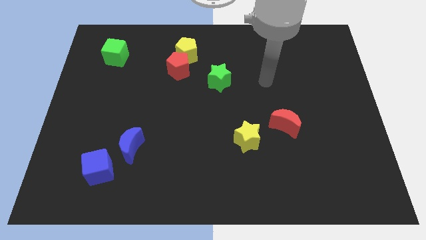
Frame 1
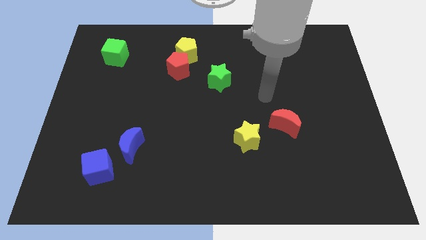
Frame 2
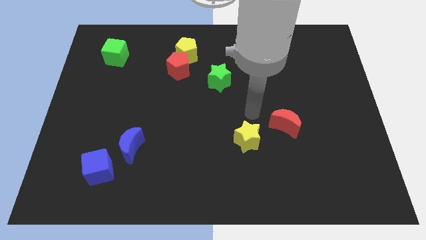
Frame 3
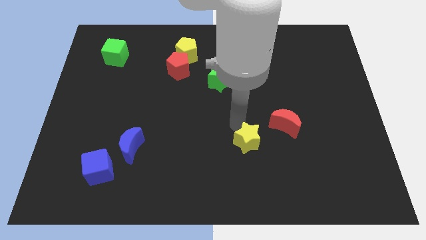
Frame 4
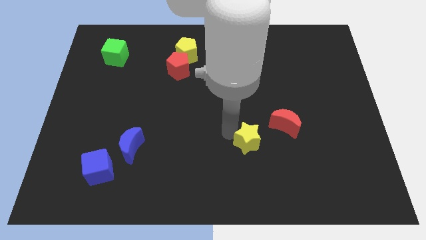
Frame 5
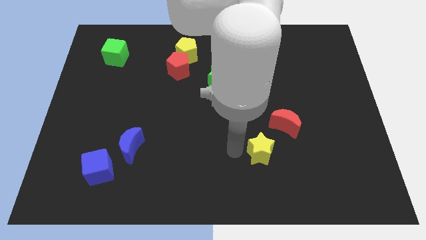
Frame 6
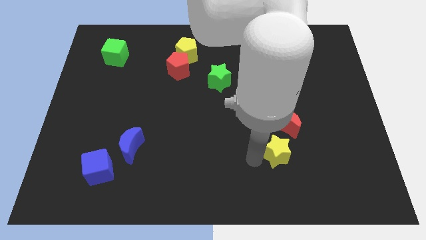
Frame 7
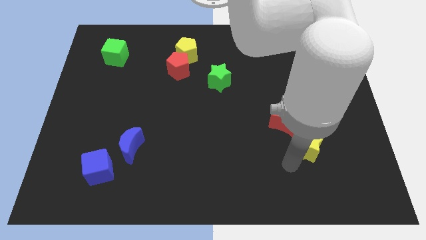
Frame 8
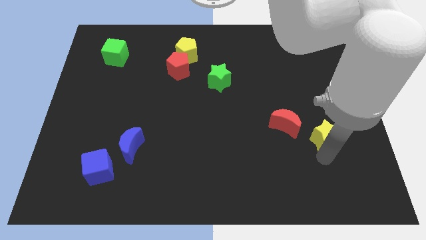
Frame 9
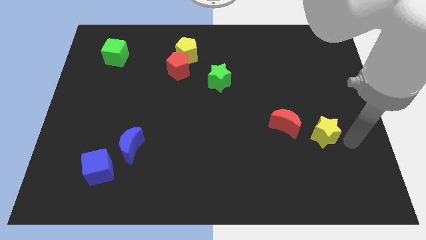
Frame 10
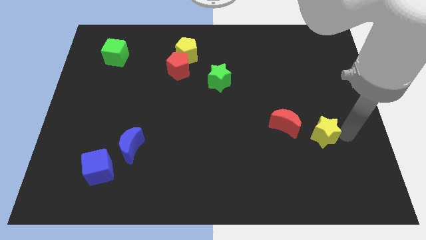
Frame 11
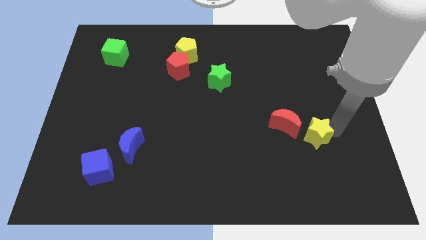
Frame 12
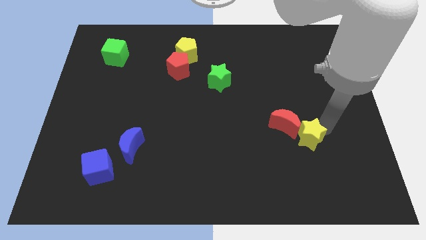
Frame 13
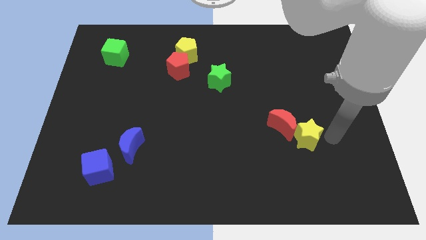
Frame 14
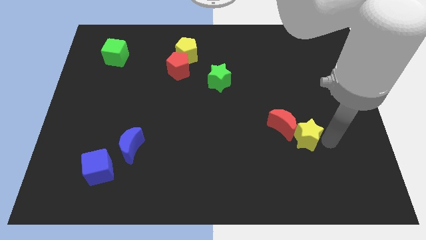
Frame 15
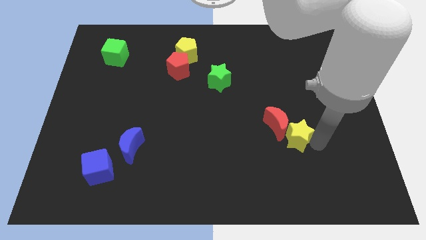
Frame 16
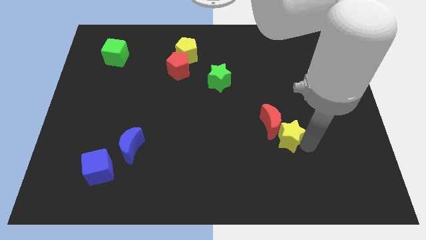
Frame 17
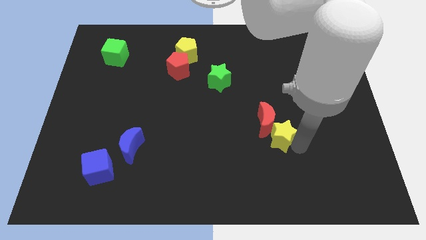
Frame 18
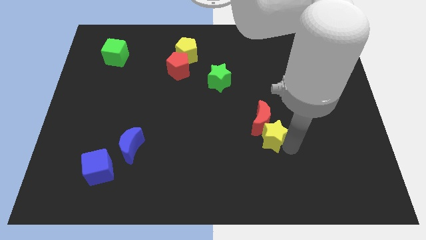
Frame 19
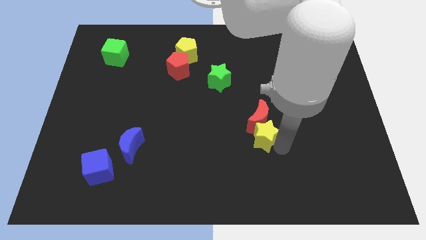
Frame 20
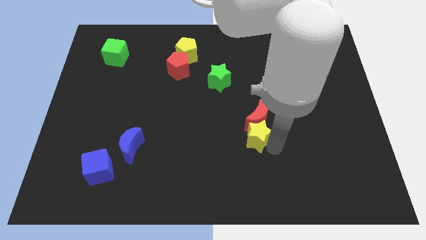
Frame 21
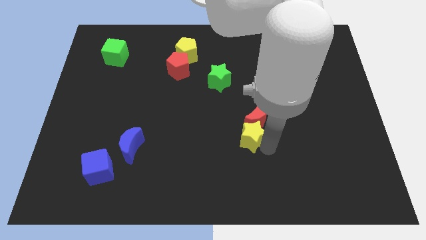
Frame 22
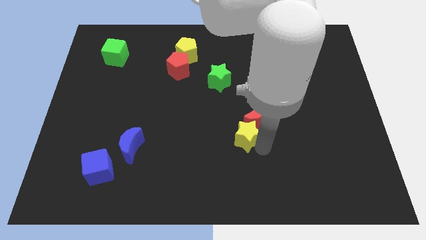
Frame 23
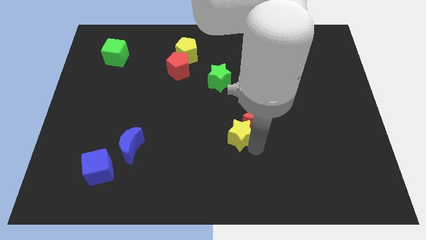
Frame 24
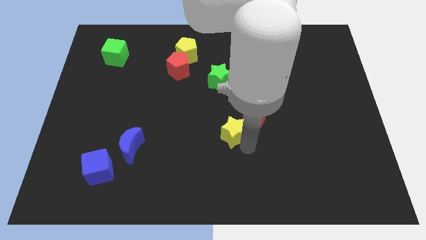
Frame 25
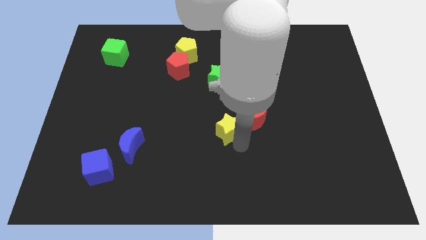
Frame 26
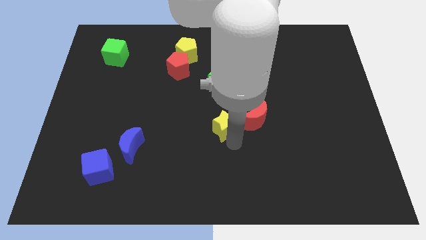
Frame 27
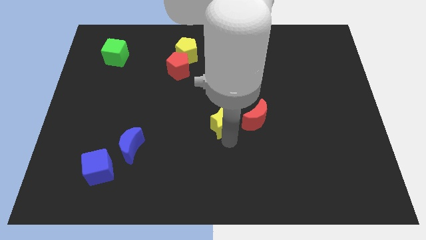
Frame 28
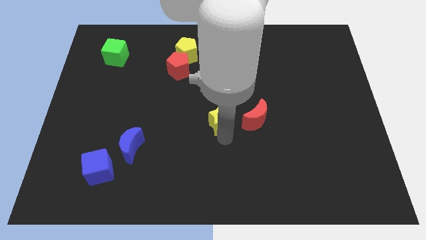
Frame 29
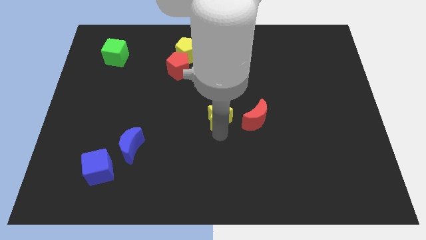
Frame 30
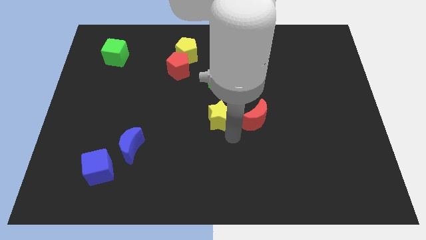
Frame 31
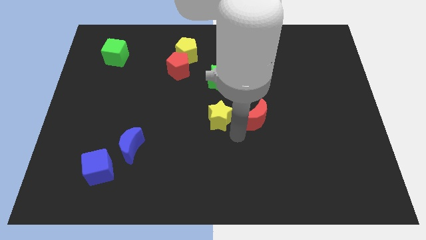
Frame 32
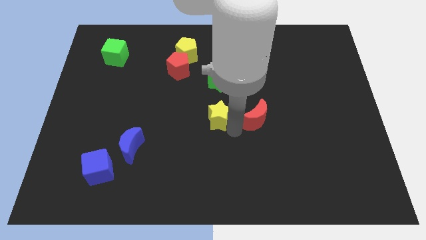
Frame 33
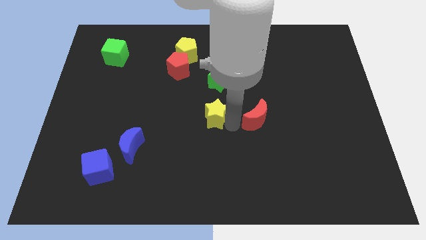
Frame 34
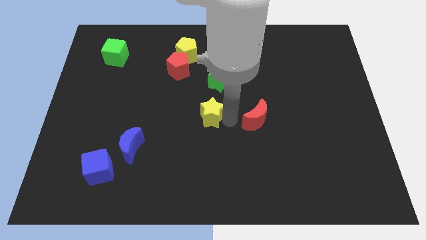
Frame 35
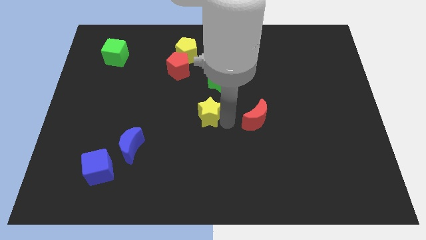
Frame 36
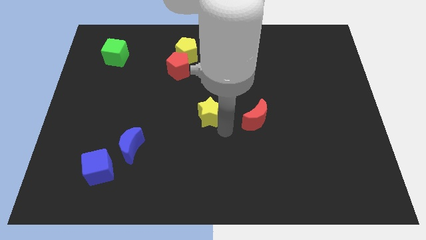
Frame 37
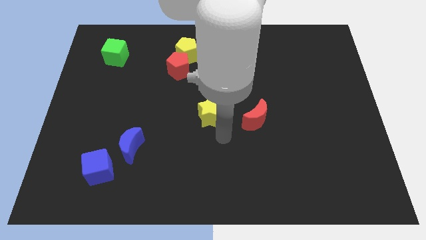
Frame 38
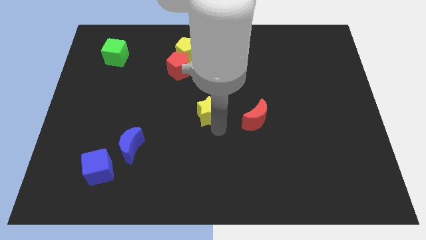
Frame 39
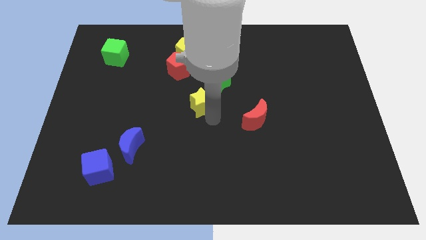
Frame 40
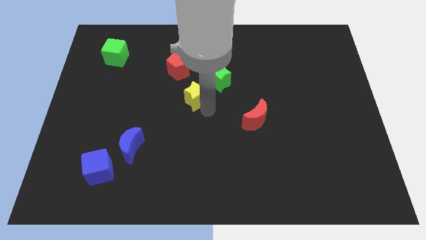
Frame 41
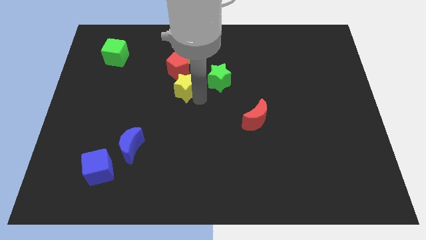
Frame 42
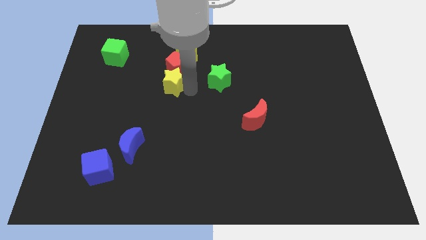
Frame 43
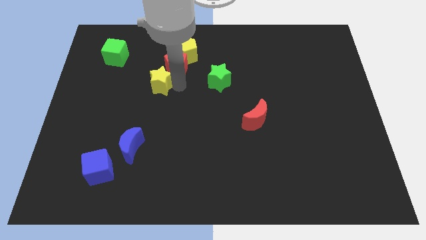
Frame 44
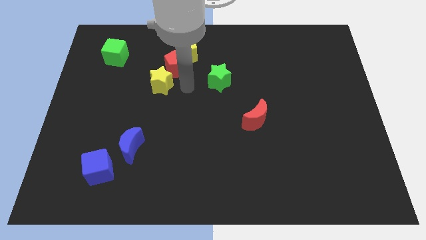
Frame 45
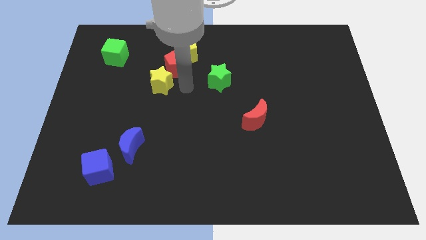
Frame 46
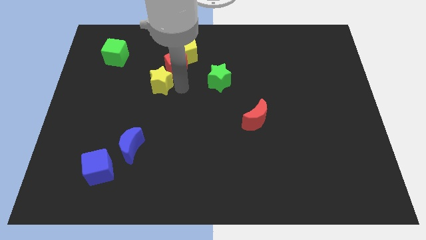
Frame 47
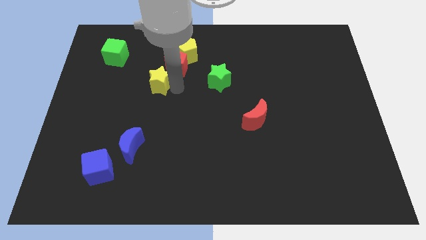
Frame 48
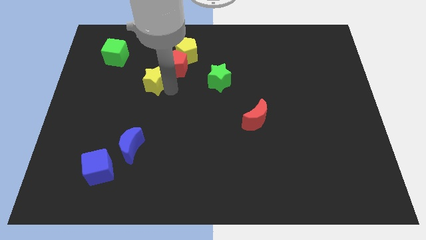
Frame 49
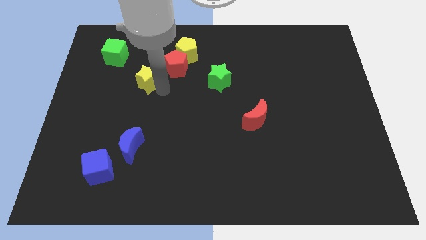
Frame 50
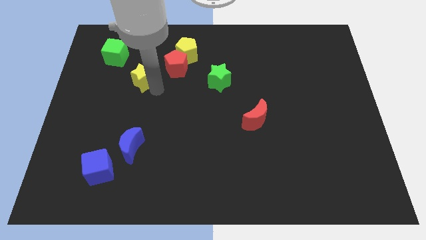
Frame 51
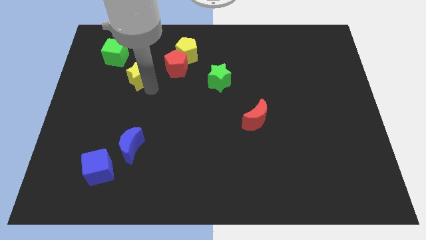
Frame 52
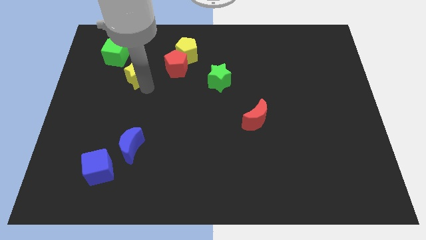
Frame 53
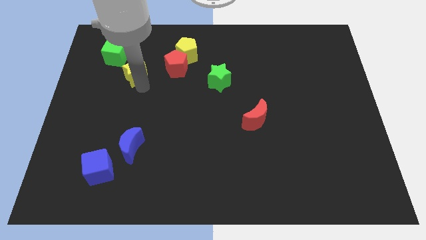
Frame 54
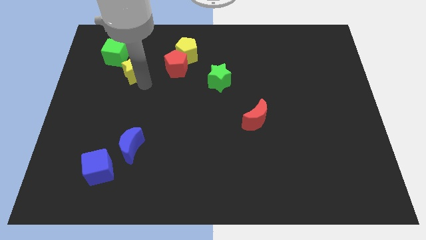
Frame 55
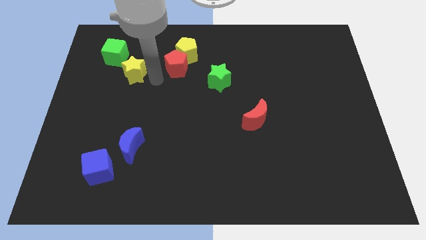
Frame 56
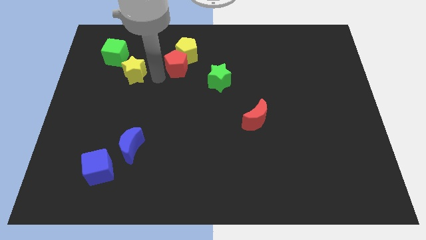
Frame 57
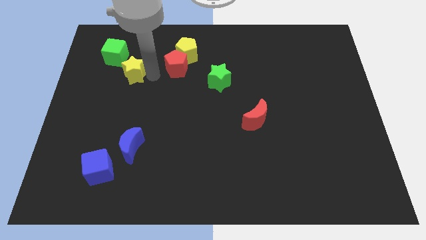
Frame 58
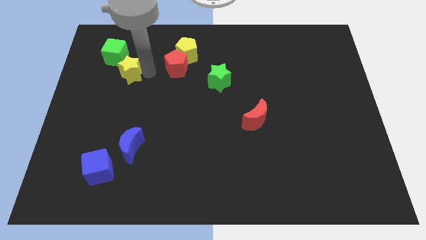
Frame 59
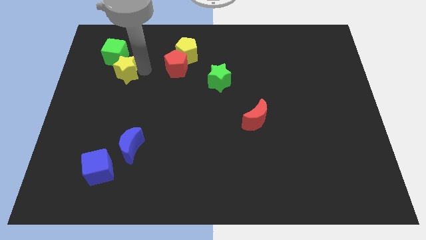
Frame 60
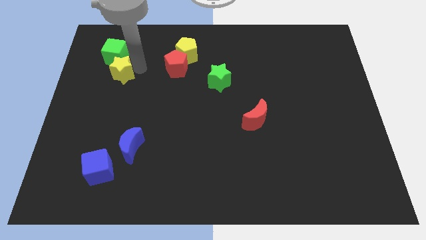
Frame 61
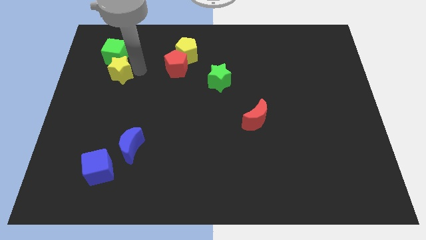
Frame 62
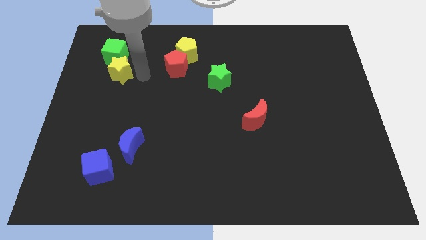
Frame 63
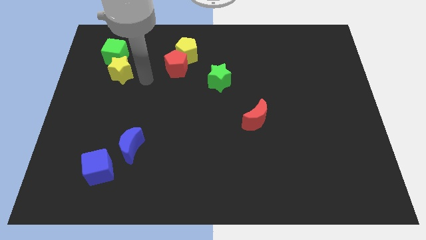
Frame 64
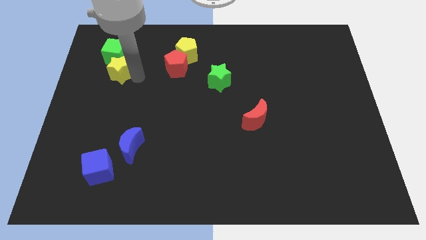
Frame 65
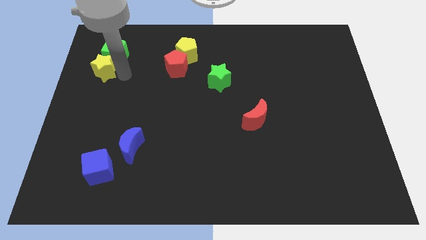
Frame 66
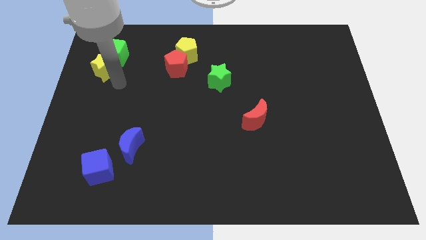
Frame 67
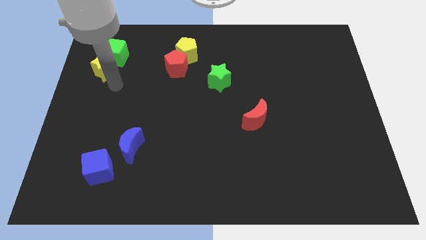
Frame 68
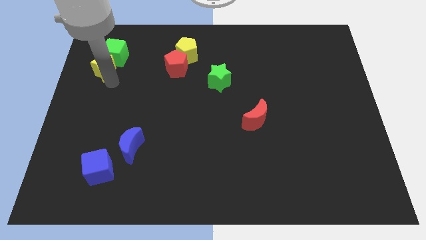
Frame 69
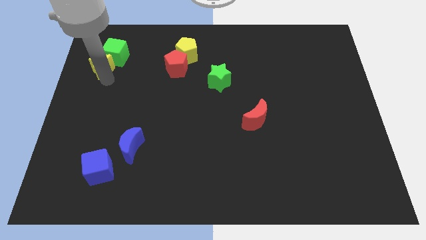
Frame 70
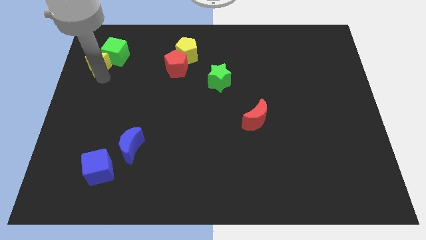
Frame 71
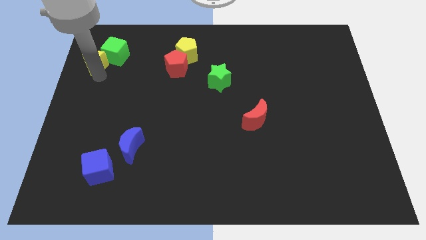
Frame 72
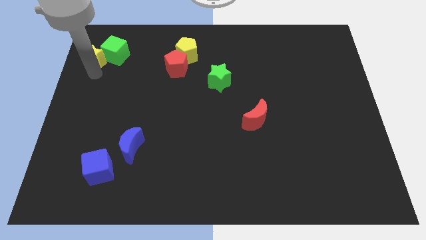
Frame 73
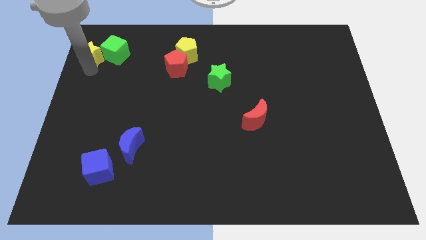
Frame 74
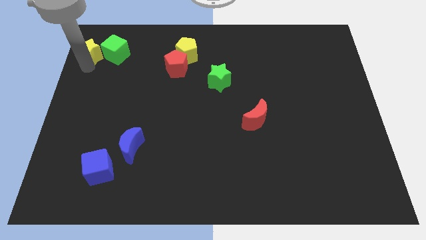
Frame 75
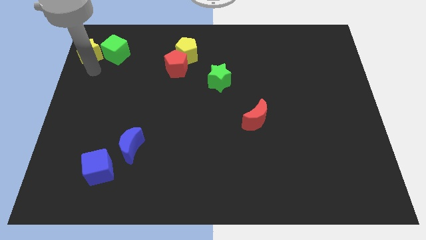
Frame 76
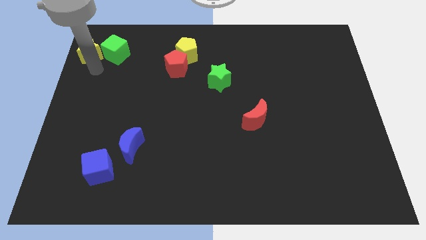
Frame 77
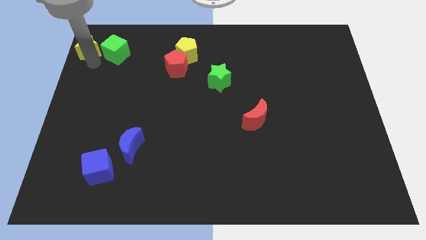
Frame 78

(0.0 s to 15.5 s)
move the yellow star to the top left corner
